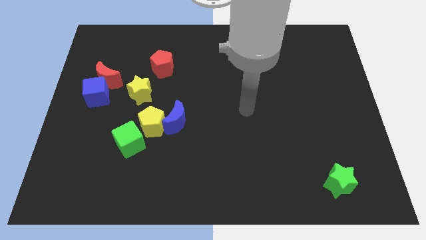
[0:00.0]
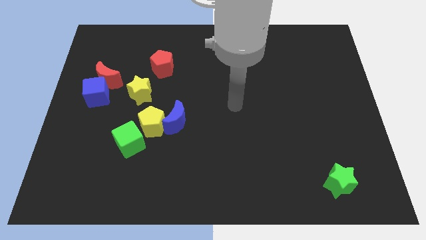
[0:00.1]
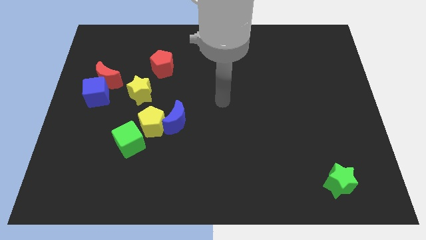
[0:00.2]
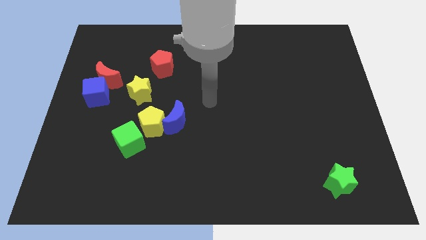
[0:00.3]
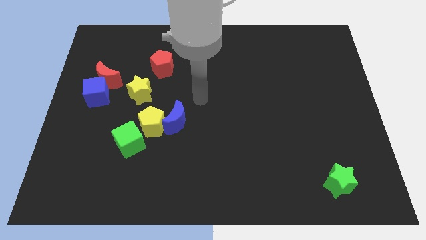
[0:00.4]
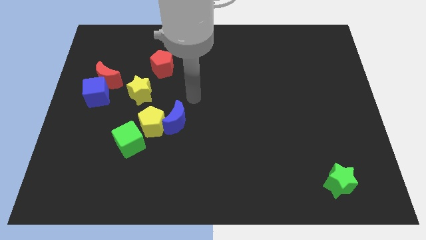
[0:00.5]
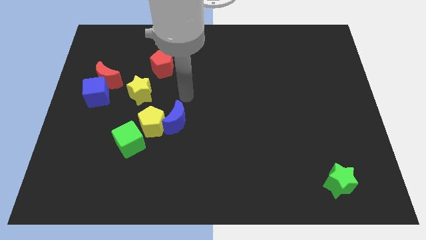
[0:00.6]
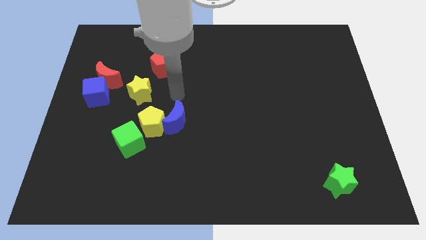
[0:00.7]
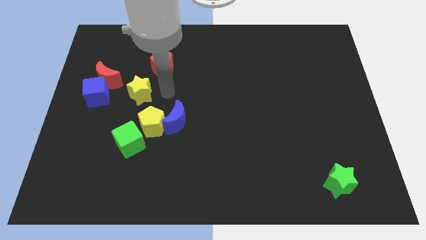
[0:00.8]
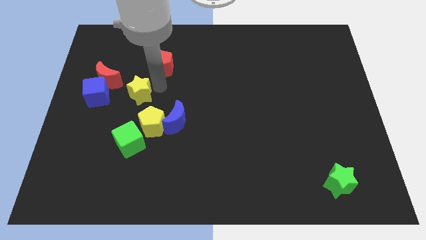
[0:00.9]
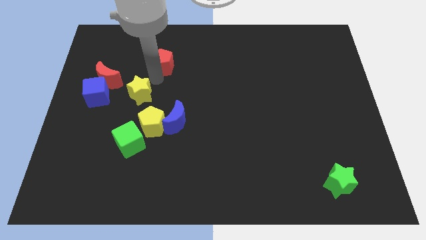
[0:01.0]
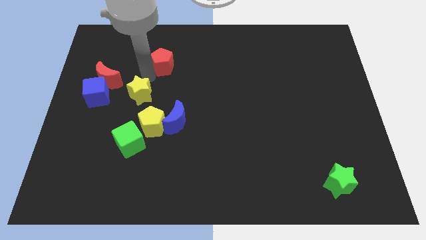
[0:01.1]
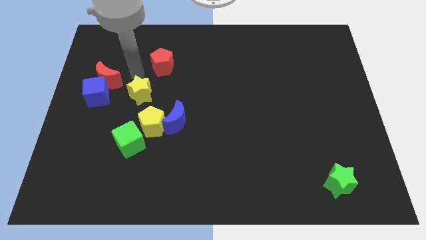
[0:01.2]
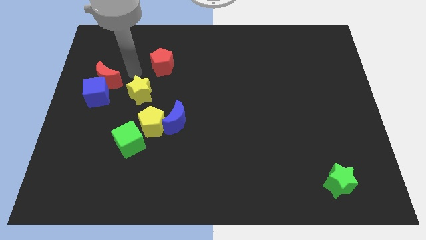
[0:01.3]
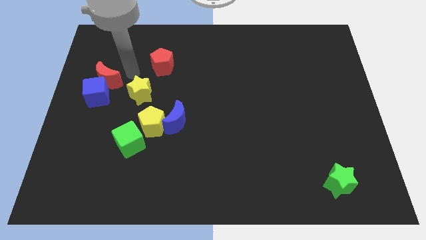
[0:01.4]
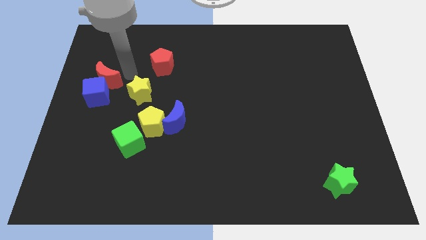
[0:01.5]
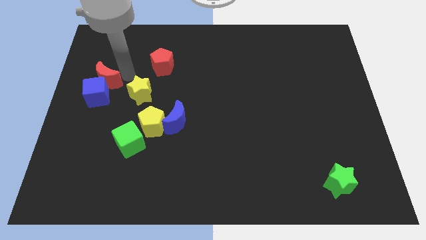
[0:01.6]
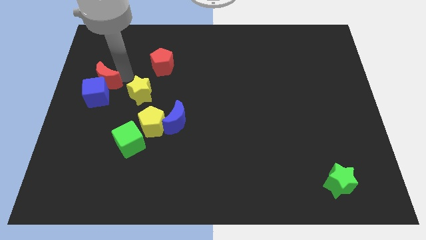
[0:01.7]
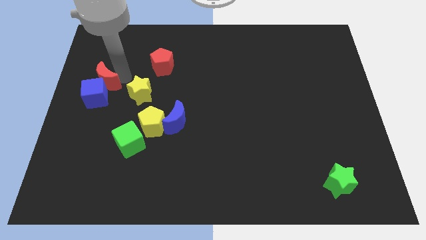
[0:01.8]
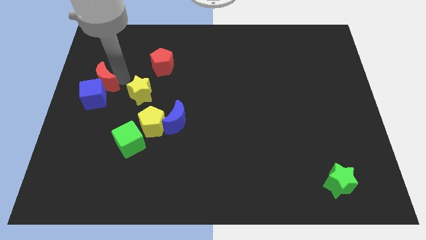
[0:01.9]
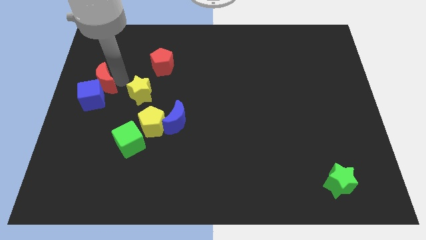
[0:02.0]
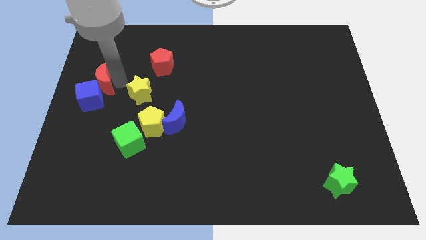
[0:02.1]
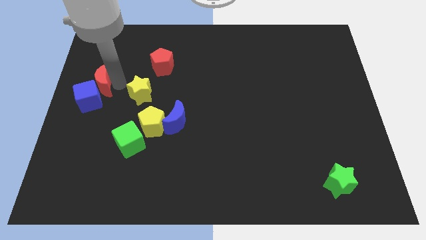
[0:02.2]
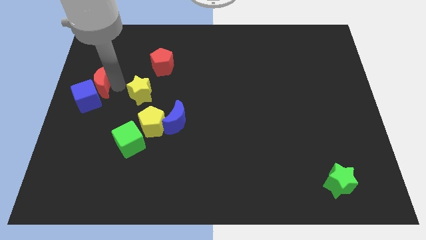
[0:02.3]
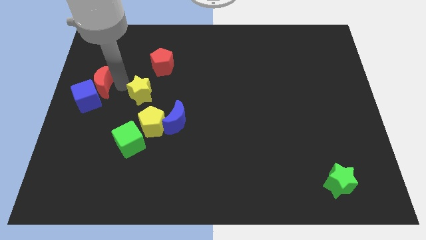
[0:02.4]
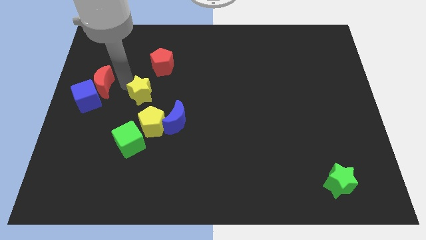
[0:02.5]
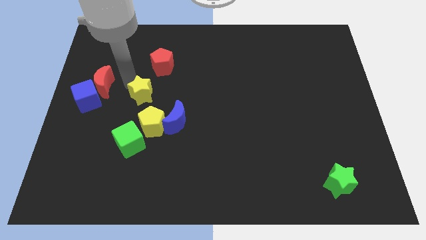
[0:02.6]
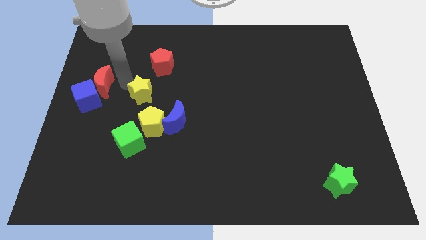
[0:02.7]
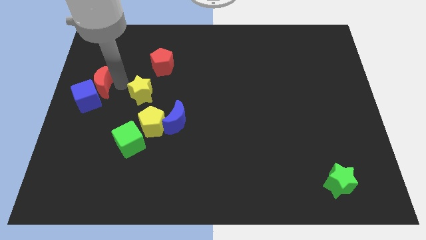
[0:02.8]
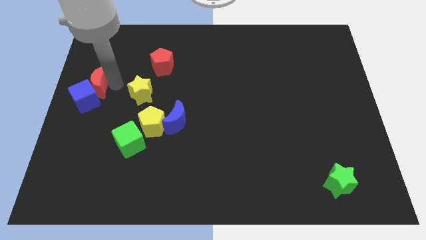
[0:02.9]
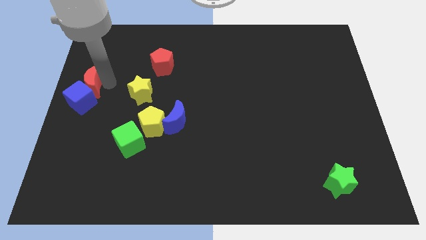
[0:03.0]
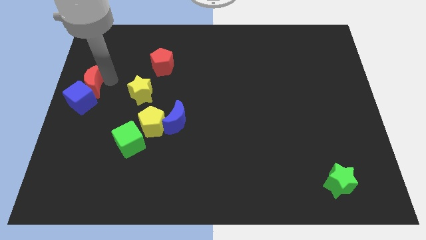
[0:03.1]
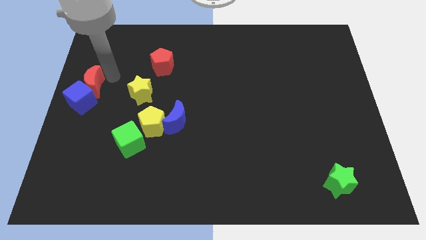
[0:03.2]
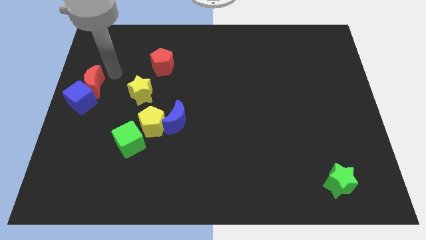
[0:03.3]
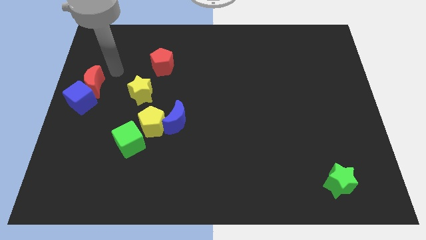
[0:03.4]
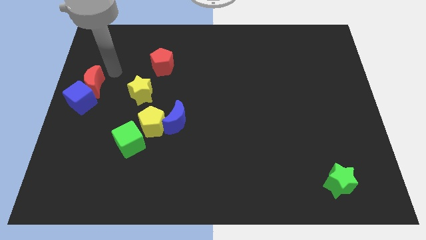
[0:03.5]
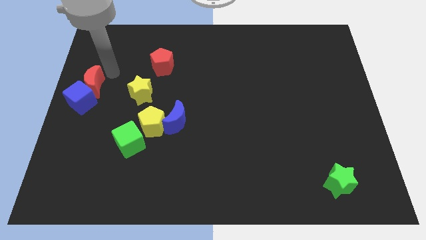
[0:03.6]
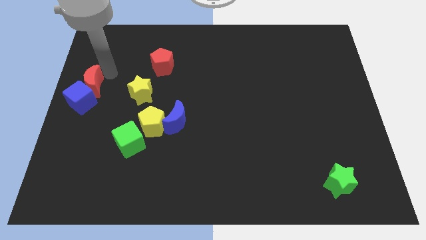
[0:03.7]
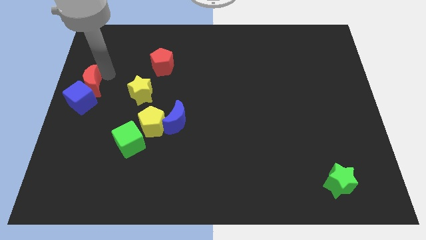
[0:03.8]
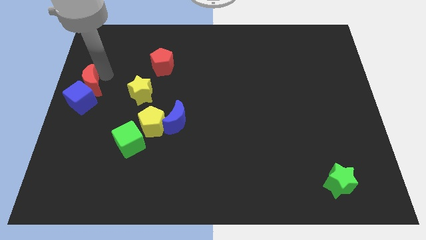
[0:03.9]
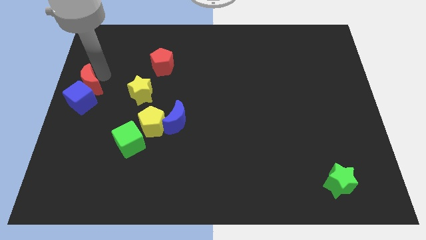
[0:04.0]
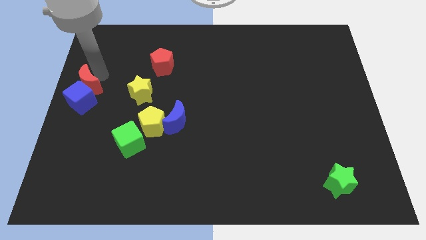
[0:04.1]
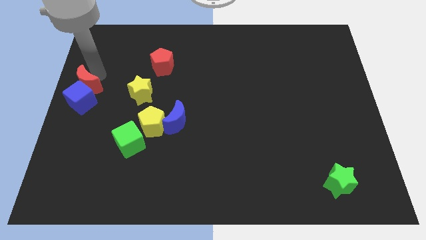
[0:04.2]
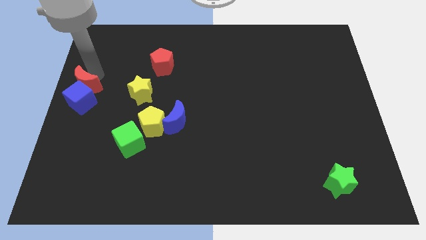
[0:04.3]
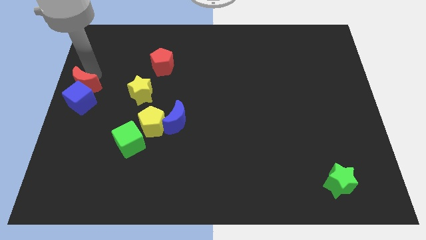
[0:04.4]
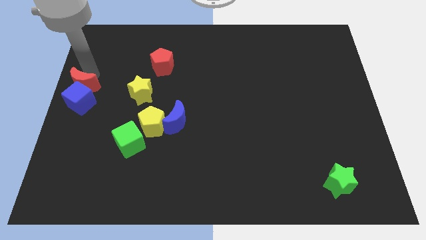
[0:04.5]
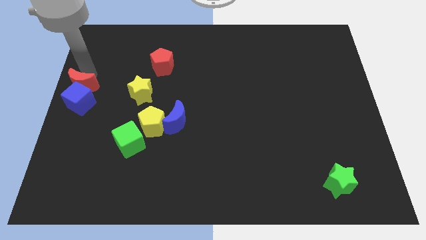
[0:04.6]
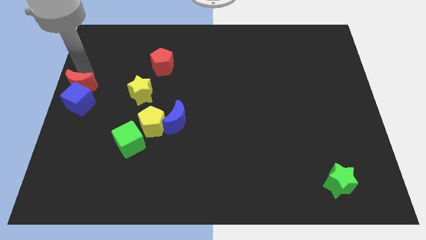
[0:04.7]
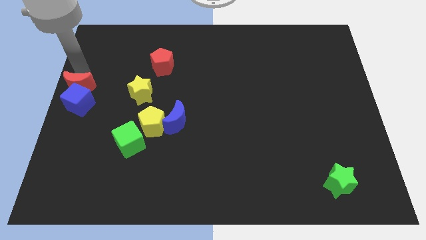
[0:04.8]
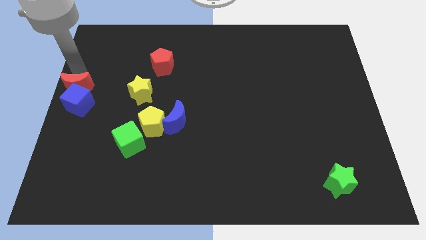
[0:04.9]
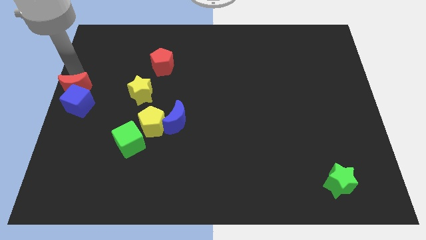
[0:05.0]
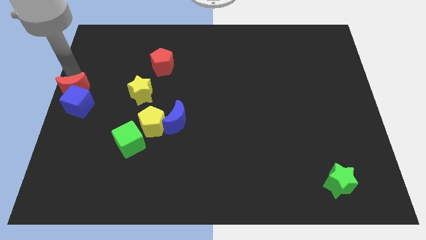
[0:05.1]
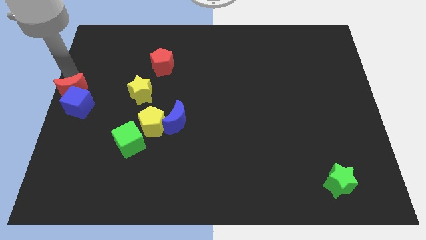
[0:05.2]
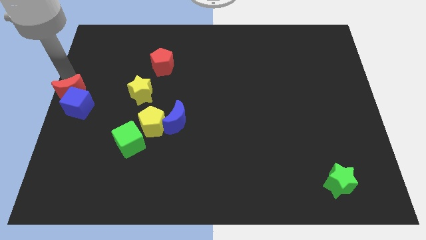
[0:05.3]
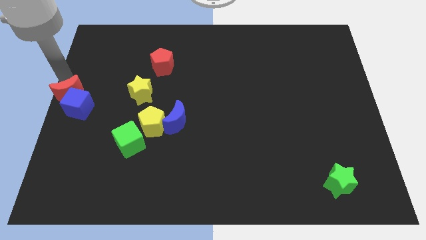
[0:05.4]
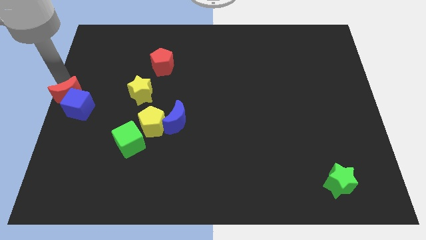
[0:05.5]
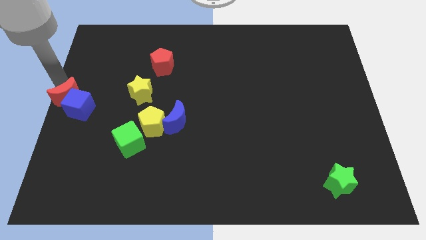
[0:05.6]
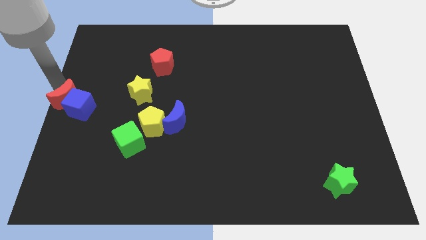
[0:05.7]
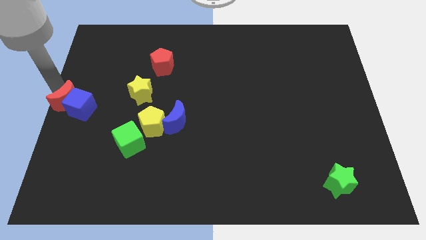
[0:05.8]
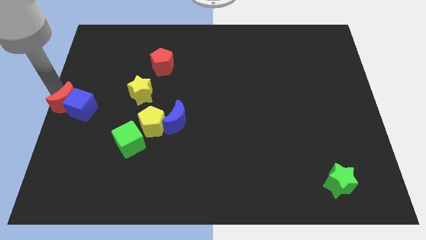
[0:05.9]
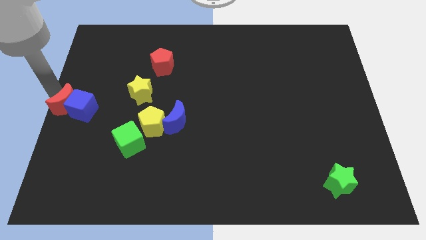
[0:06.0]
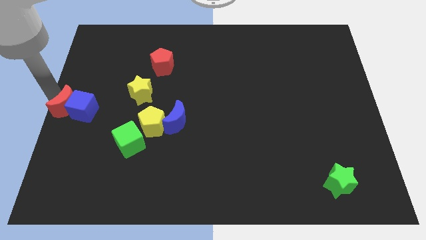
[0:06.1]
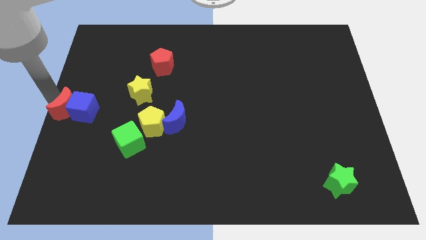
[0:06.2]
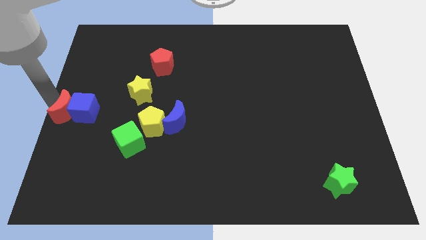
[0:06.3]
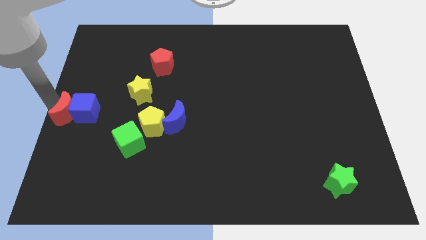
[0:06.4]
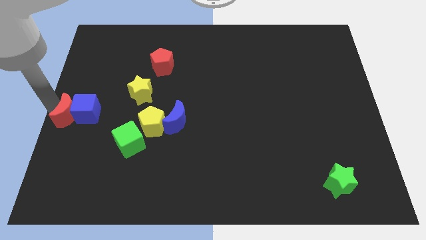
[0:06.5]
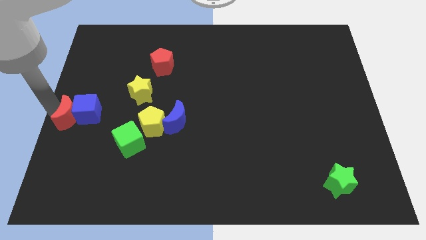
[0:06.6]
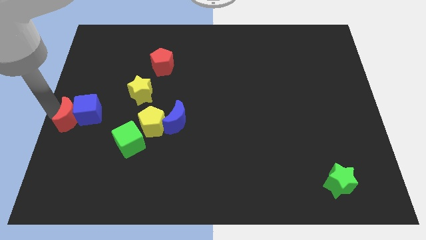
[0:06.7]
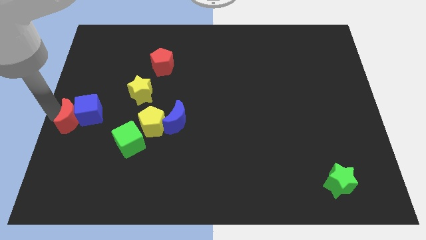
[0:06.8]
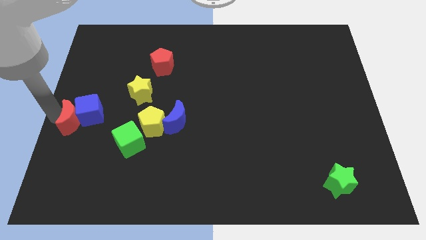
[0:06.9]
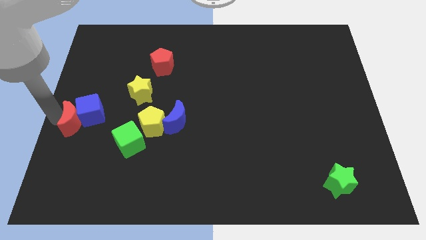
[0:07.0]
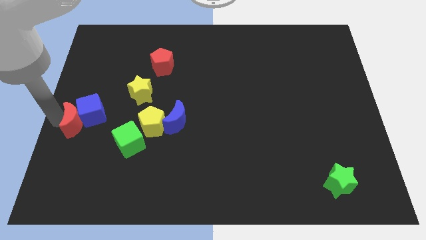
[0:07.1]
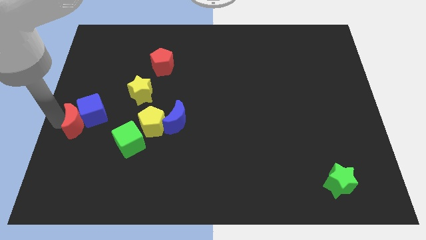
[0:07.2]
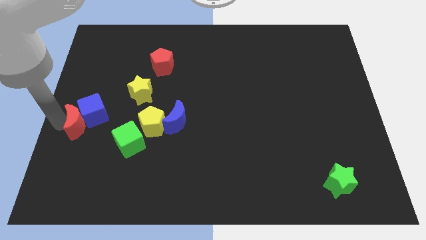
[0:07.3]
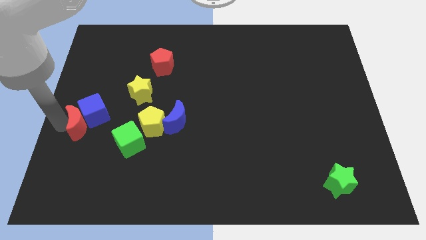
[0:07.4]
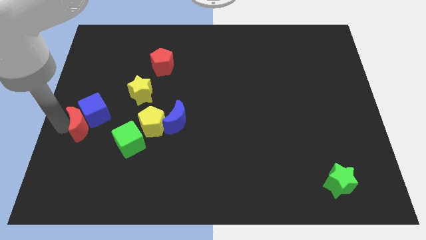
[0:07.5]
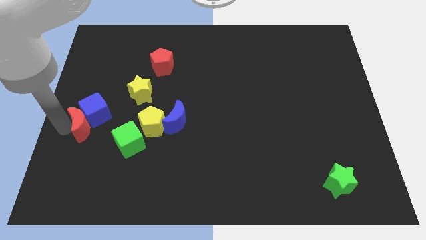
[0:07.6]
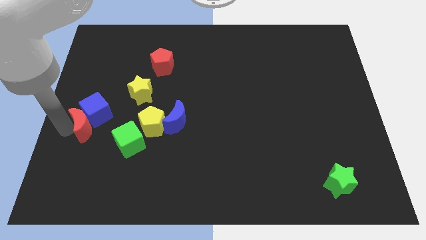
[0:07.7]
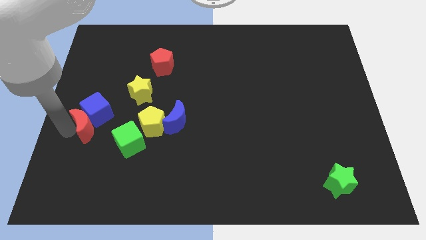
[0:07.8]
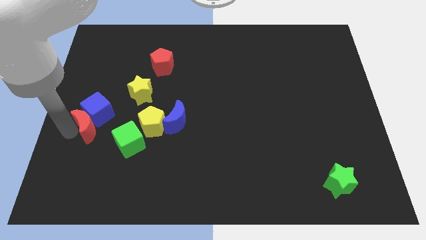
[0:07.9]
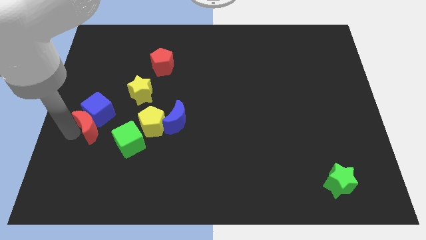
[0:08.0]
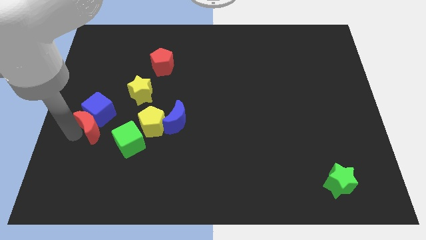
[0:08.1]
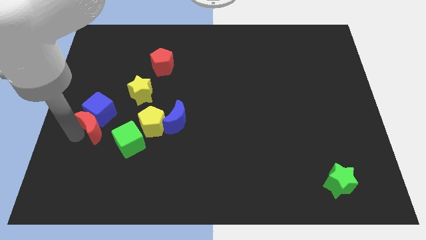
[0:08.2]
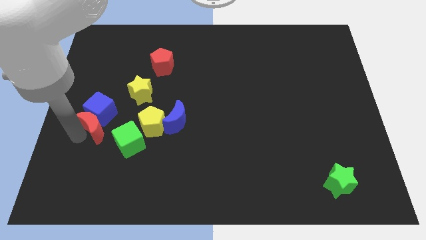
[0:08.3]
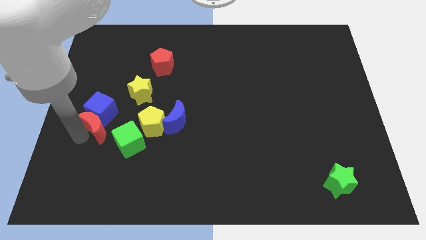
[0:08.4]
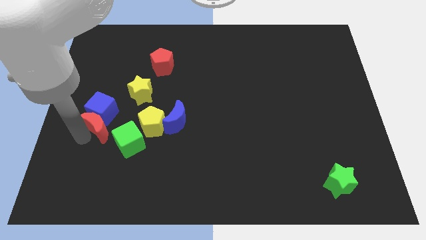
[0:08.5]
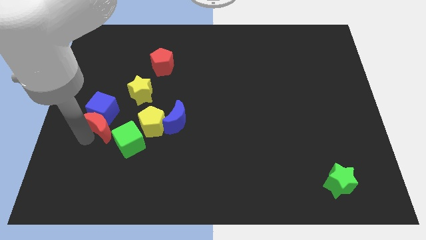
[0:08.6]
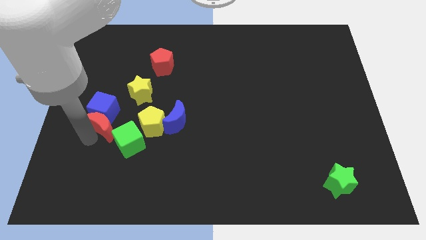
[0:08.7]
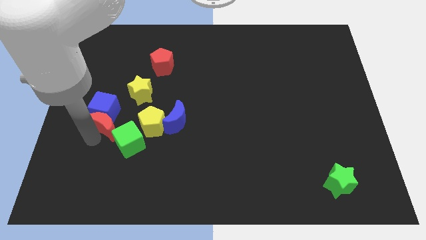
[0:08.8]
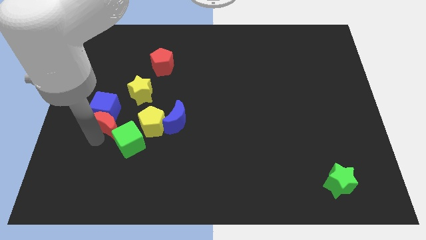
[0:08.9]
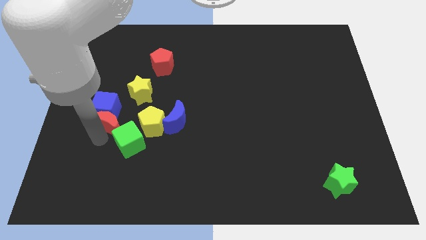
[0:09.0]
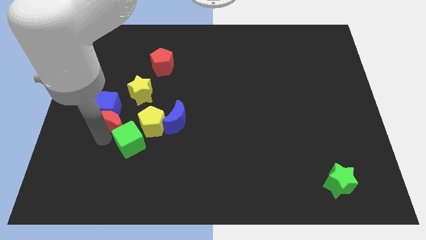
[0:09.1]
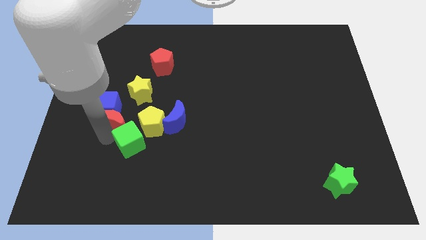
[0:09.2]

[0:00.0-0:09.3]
slide the red moon close to the green cube
